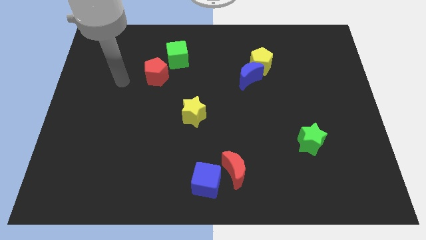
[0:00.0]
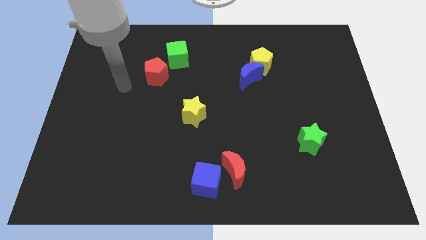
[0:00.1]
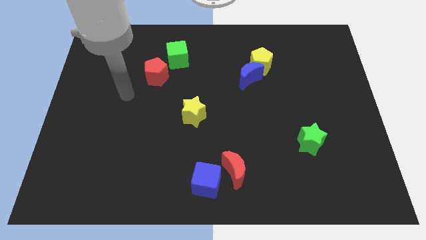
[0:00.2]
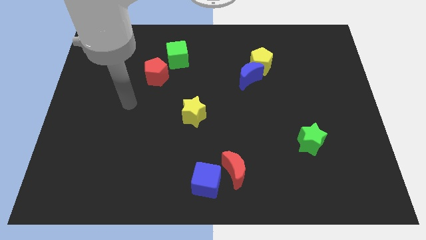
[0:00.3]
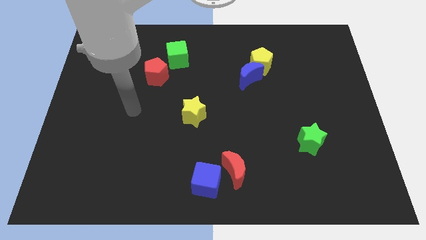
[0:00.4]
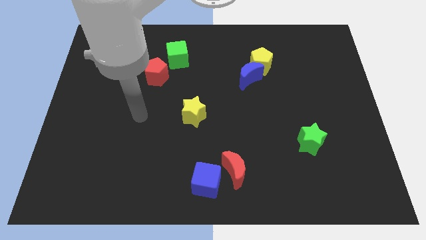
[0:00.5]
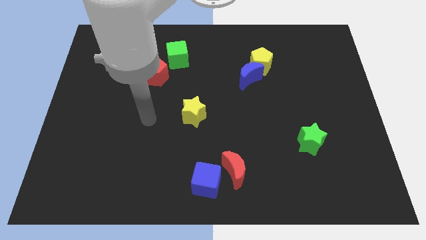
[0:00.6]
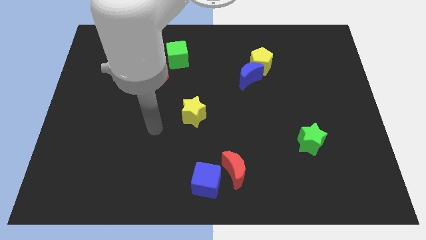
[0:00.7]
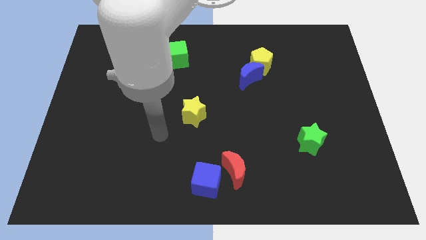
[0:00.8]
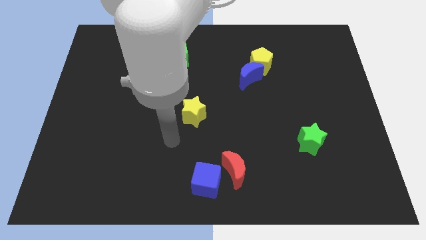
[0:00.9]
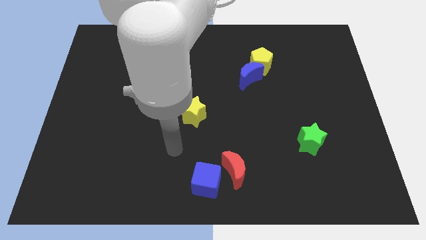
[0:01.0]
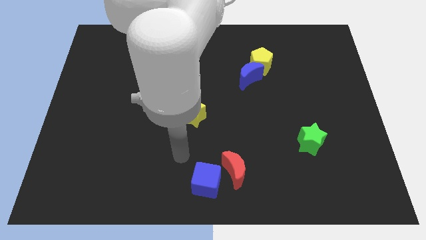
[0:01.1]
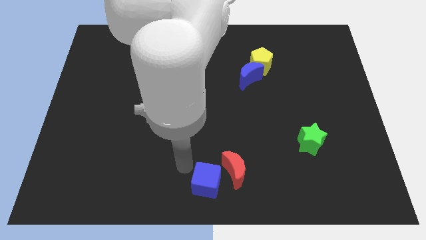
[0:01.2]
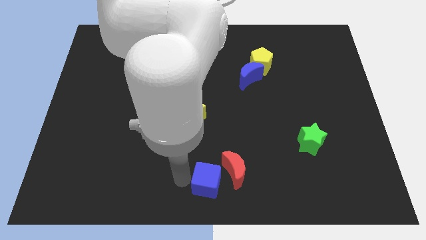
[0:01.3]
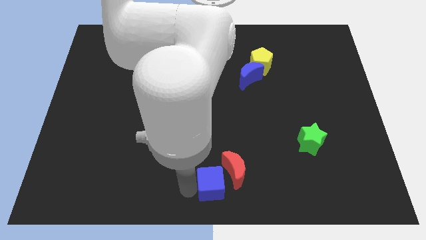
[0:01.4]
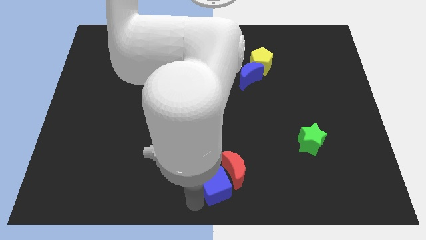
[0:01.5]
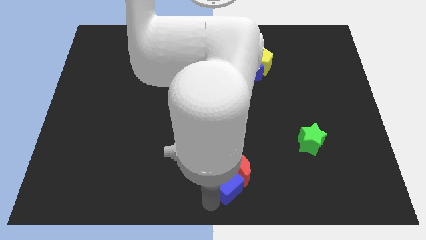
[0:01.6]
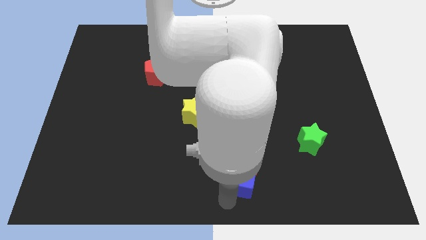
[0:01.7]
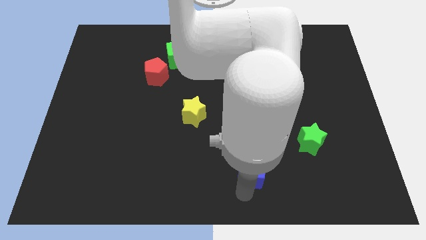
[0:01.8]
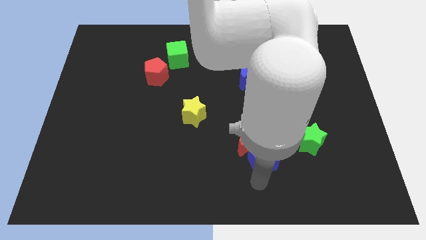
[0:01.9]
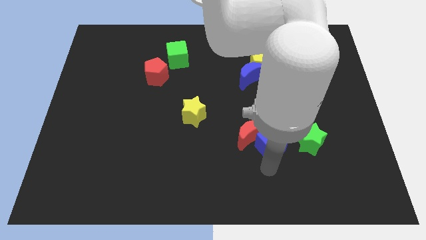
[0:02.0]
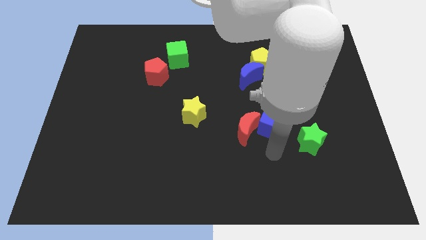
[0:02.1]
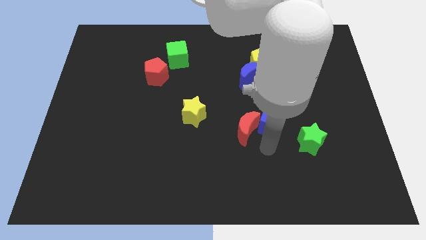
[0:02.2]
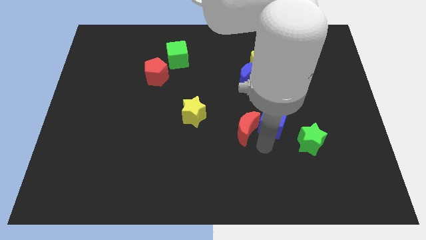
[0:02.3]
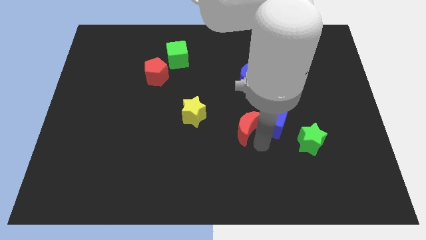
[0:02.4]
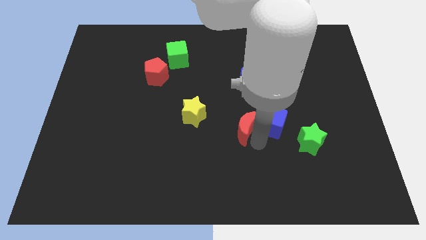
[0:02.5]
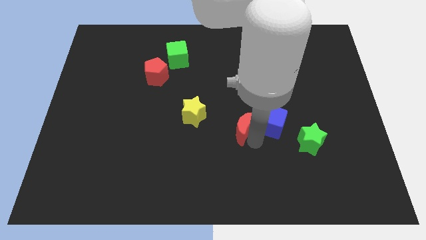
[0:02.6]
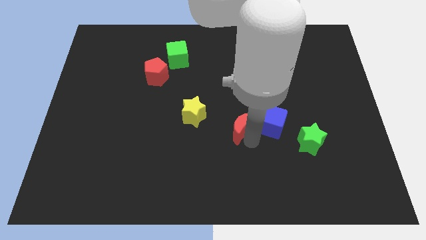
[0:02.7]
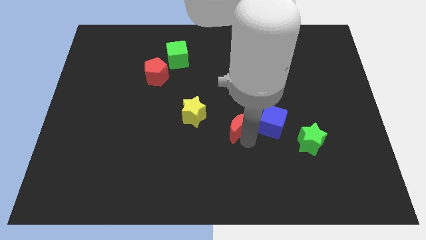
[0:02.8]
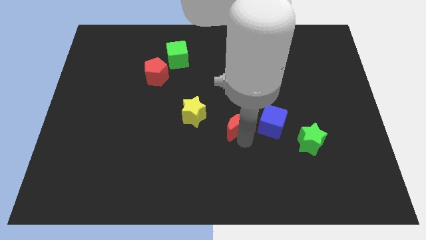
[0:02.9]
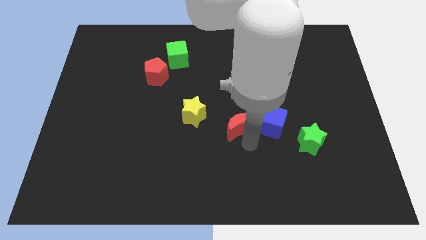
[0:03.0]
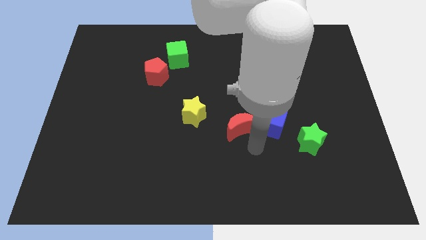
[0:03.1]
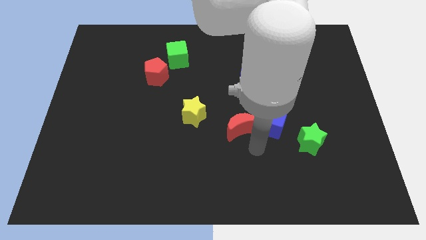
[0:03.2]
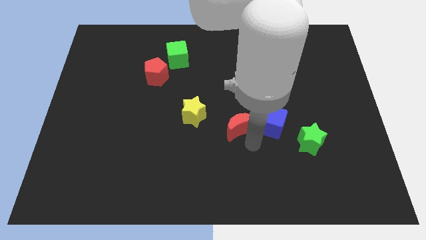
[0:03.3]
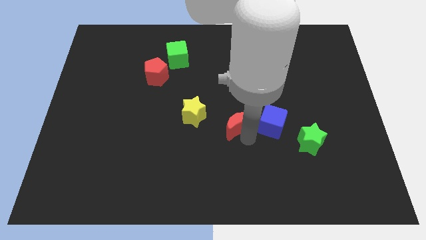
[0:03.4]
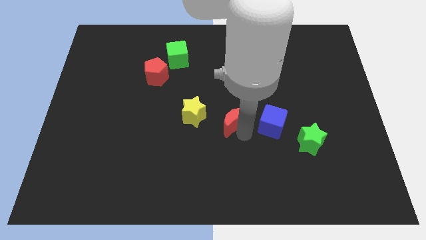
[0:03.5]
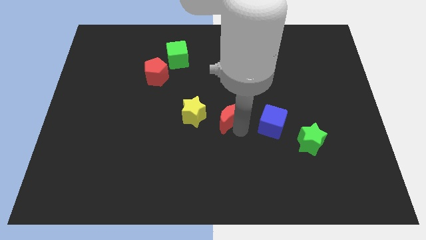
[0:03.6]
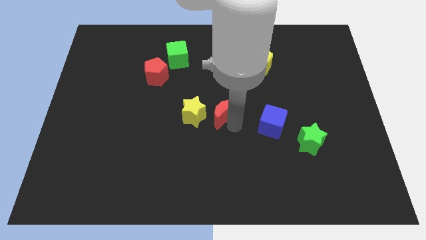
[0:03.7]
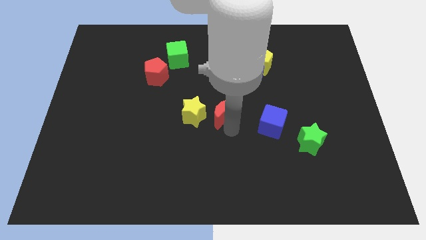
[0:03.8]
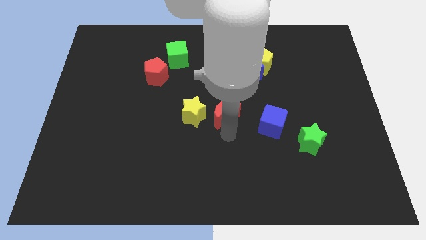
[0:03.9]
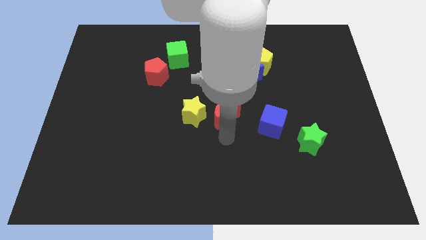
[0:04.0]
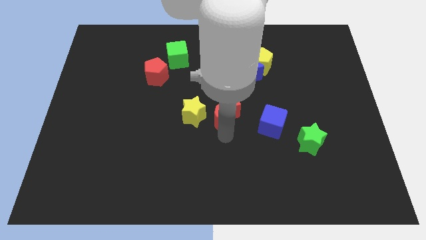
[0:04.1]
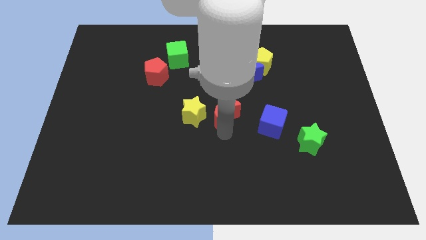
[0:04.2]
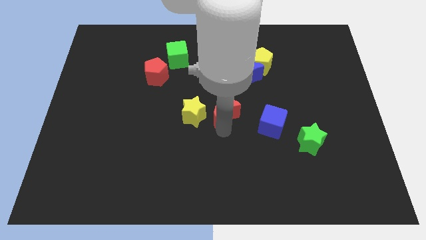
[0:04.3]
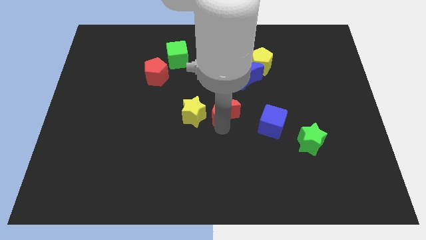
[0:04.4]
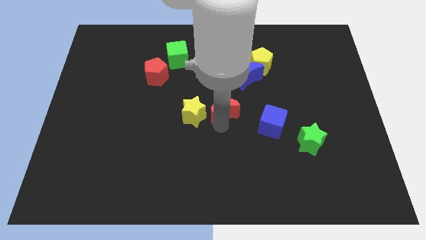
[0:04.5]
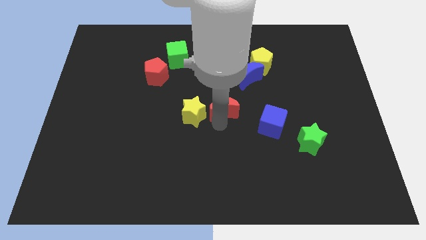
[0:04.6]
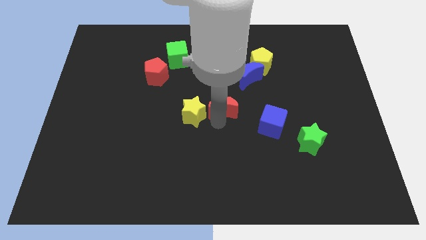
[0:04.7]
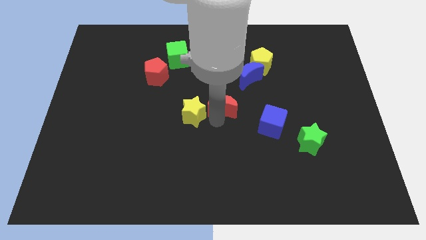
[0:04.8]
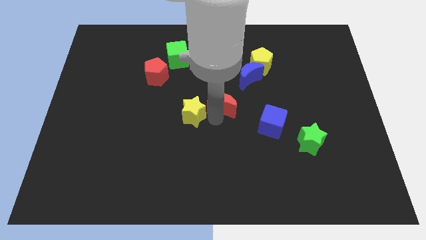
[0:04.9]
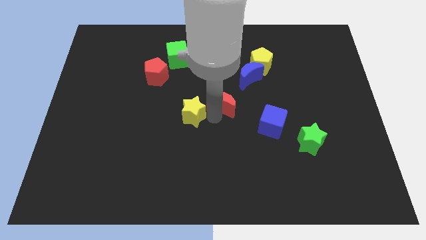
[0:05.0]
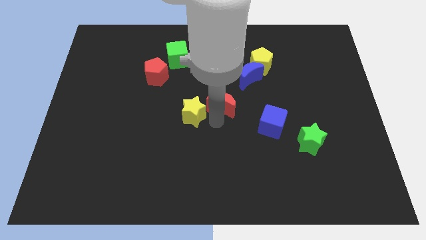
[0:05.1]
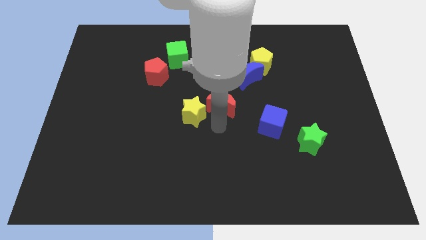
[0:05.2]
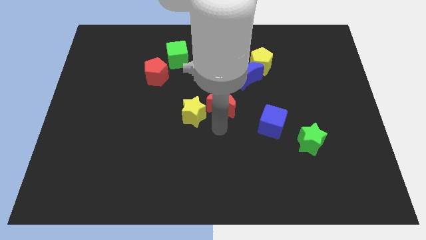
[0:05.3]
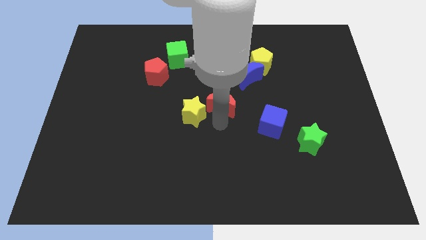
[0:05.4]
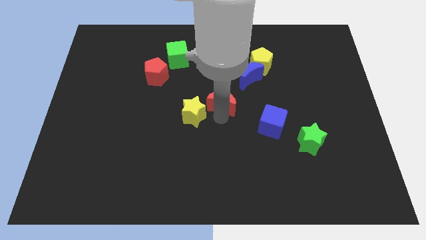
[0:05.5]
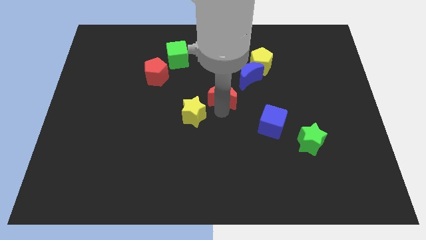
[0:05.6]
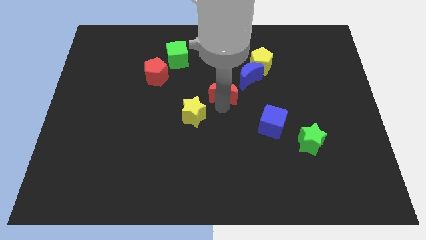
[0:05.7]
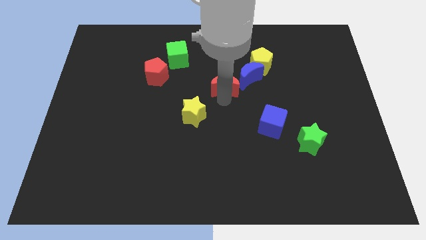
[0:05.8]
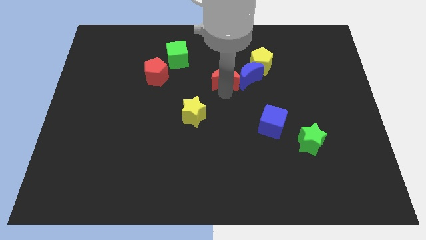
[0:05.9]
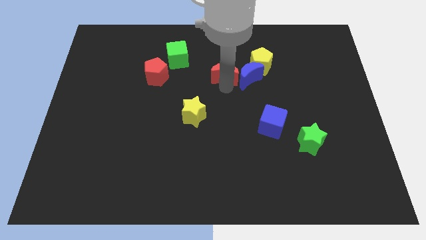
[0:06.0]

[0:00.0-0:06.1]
slide the red moon to the left of the yellow pentagon

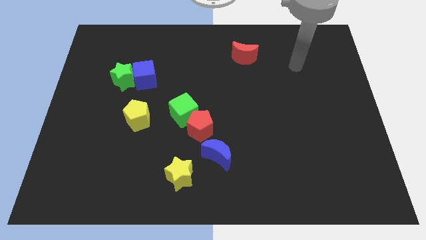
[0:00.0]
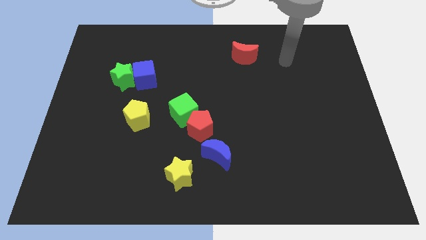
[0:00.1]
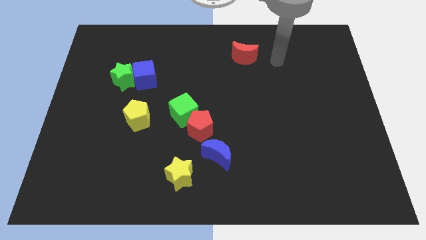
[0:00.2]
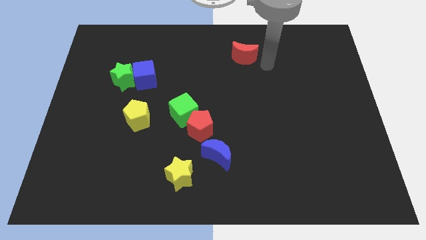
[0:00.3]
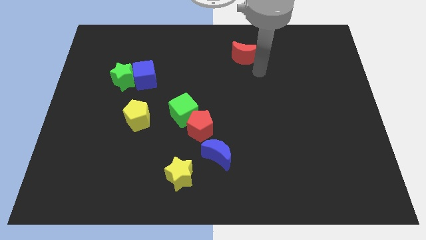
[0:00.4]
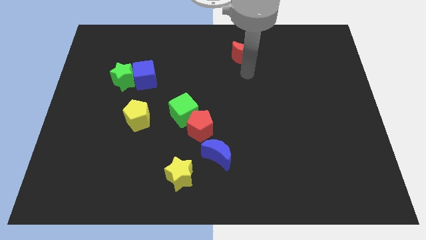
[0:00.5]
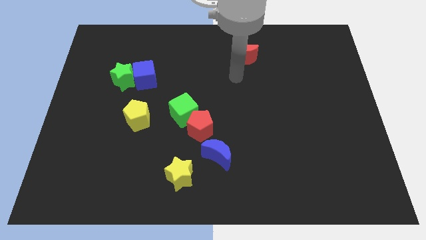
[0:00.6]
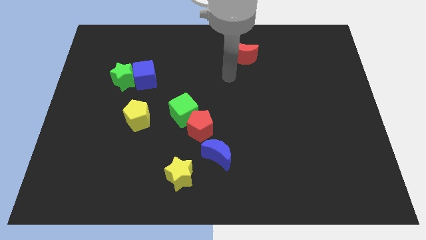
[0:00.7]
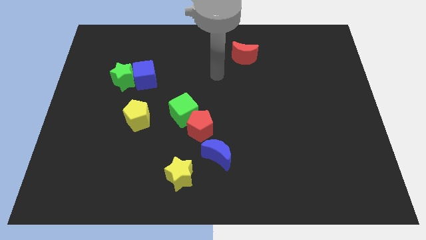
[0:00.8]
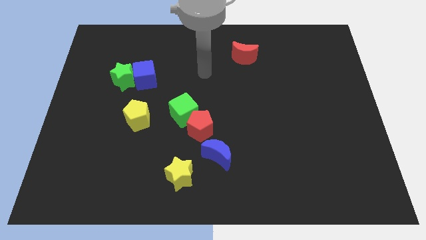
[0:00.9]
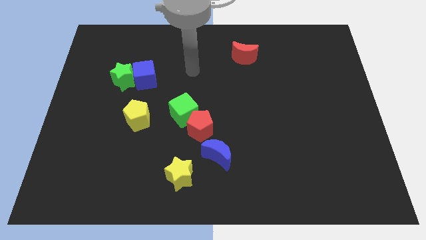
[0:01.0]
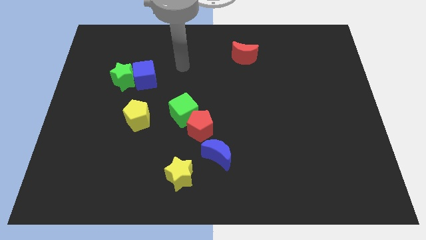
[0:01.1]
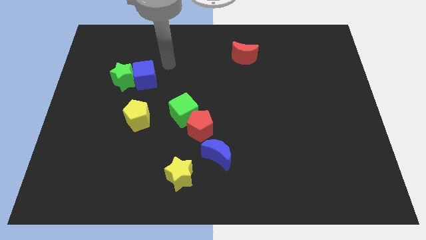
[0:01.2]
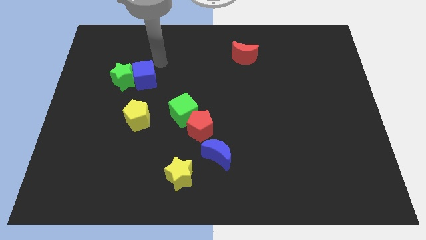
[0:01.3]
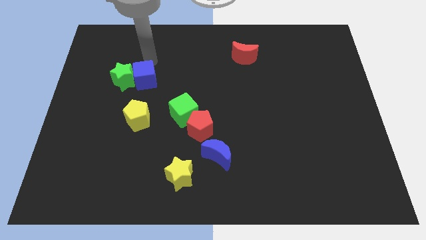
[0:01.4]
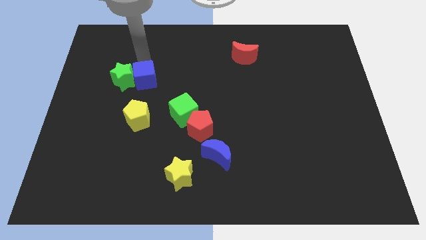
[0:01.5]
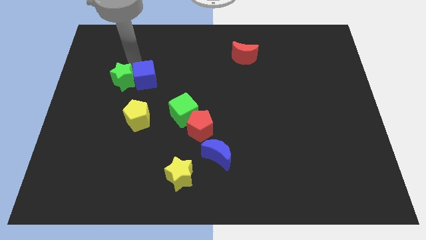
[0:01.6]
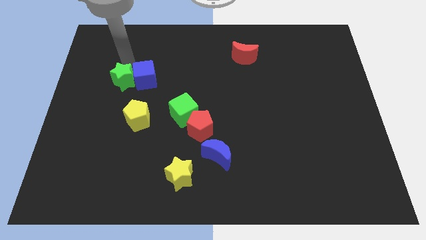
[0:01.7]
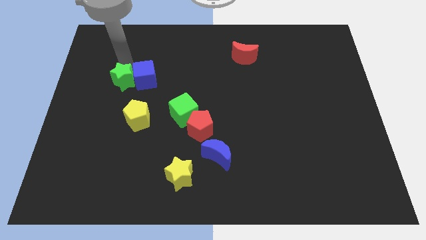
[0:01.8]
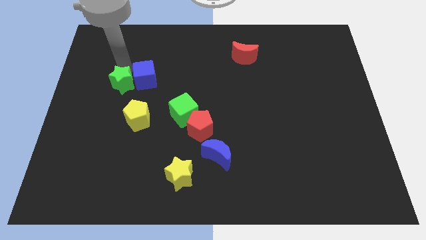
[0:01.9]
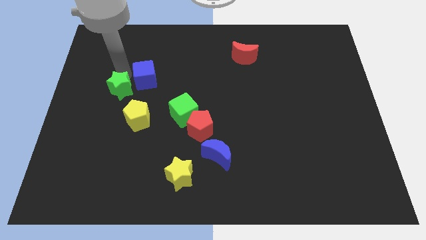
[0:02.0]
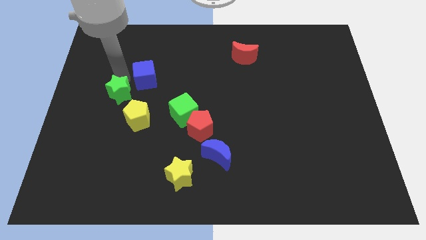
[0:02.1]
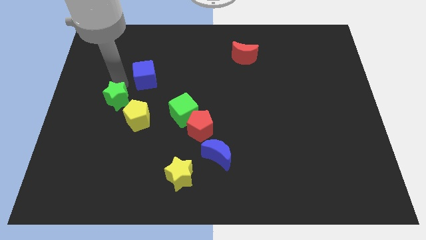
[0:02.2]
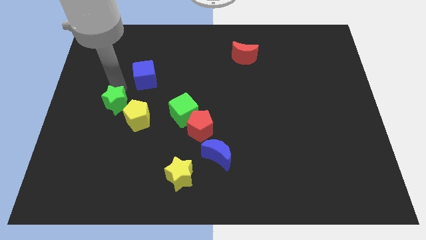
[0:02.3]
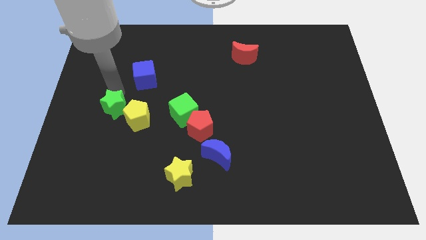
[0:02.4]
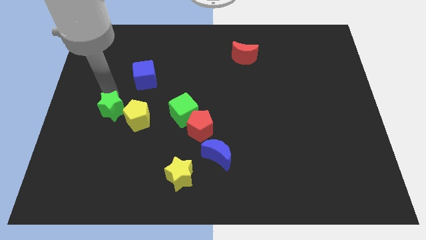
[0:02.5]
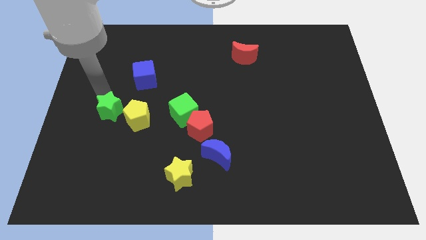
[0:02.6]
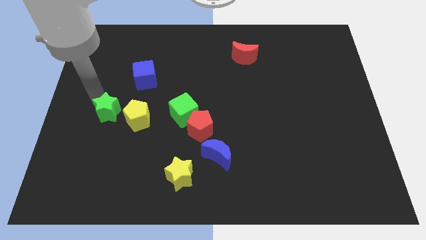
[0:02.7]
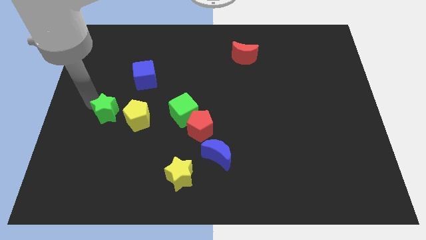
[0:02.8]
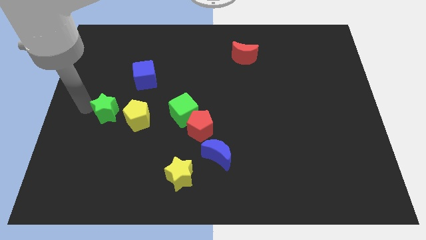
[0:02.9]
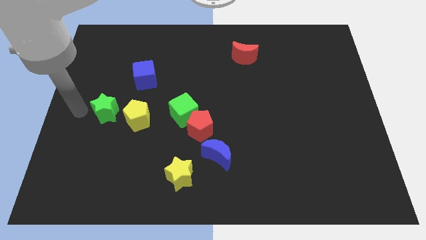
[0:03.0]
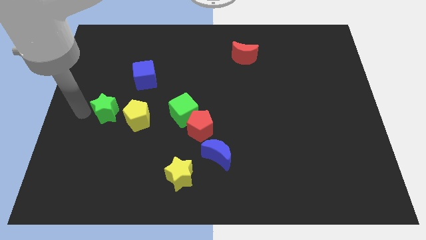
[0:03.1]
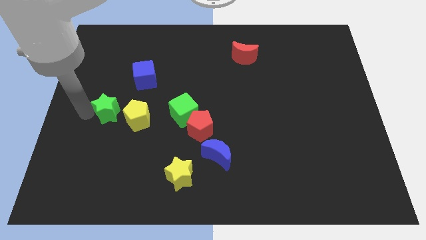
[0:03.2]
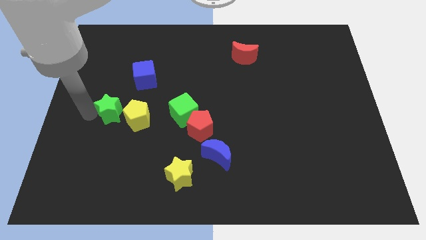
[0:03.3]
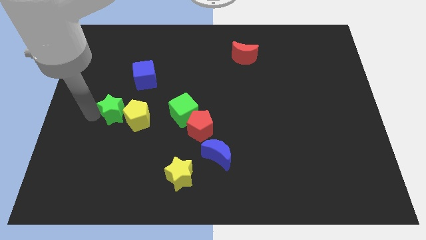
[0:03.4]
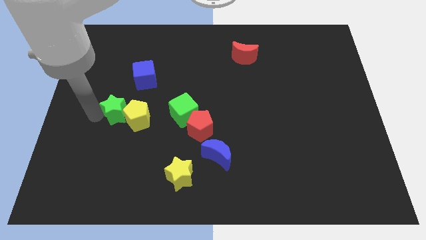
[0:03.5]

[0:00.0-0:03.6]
slide the green star just left of the green cube
